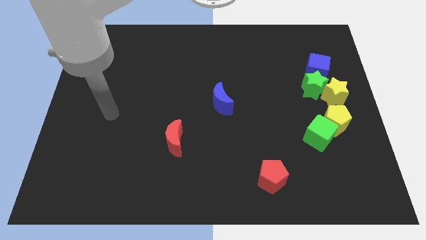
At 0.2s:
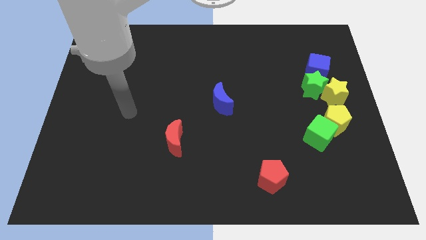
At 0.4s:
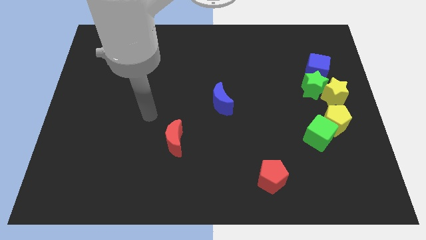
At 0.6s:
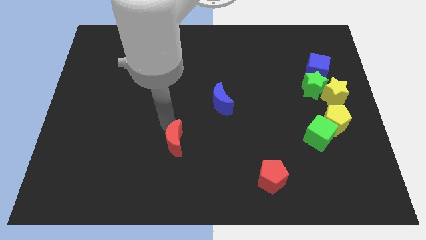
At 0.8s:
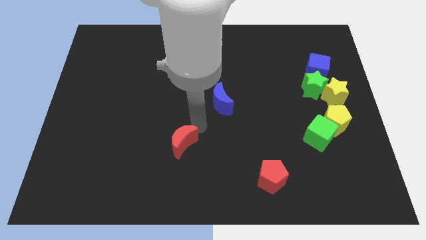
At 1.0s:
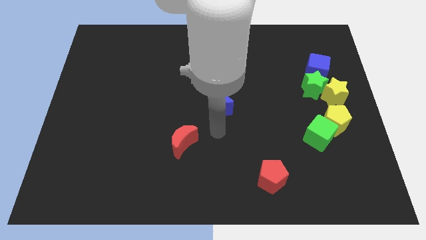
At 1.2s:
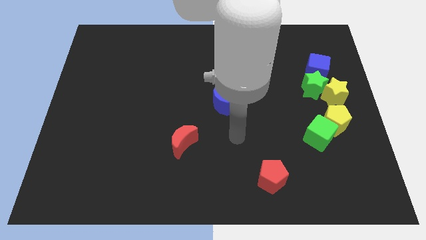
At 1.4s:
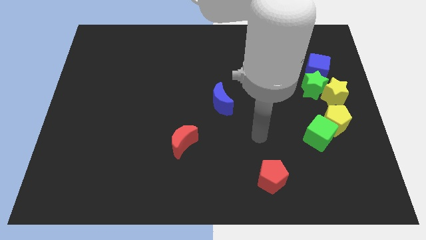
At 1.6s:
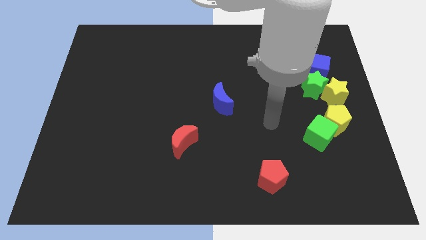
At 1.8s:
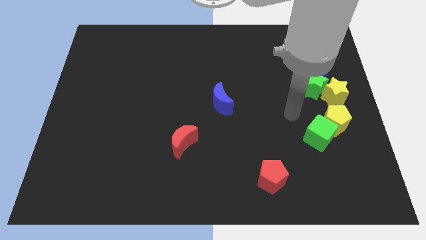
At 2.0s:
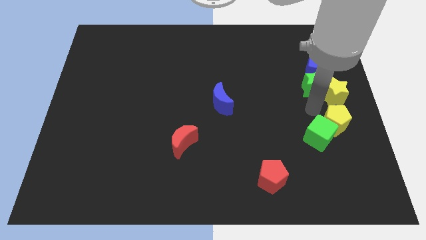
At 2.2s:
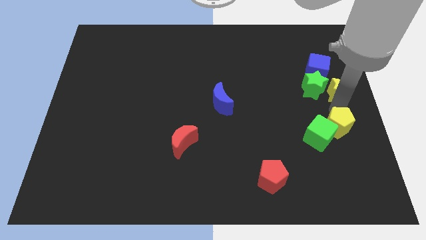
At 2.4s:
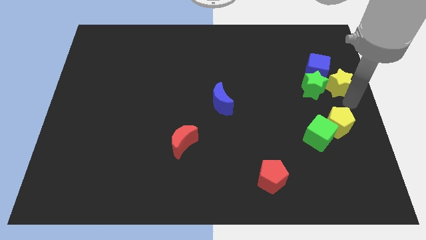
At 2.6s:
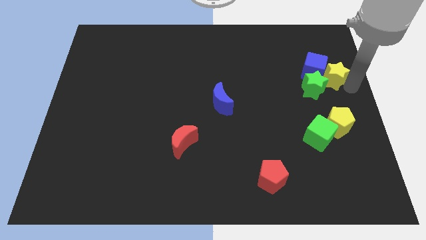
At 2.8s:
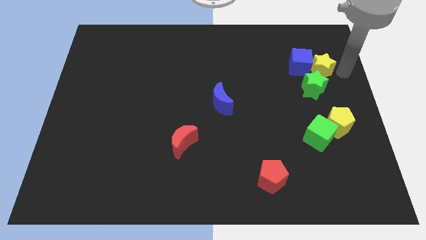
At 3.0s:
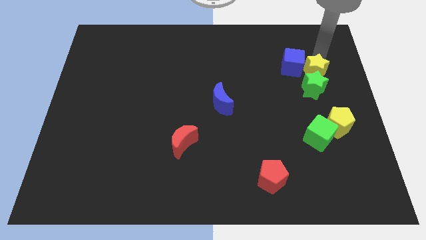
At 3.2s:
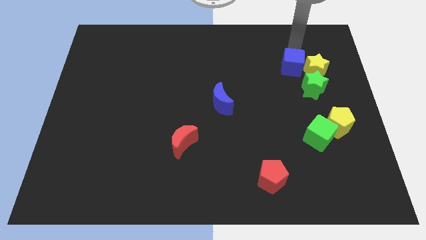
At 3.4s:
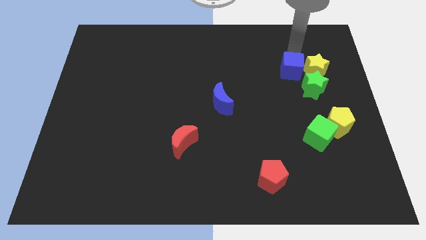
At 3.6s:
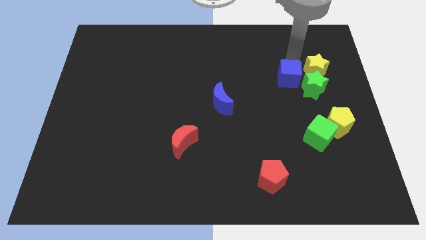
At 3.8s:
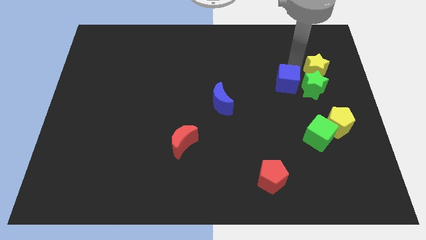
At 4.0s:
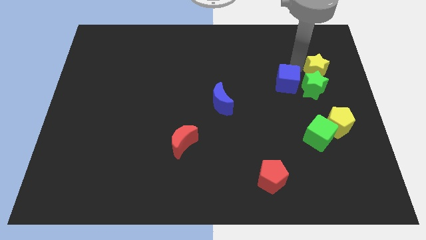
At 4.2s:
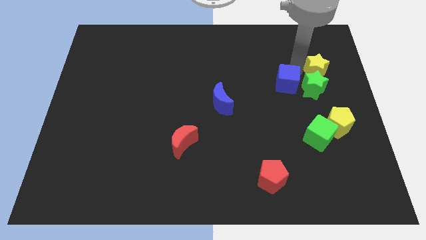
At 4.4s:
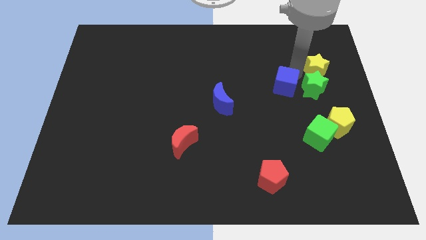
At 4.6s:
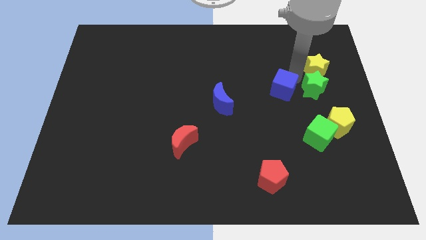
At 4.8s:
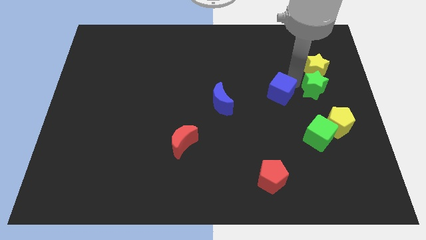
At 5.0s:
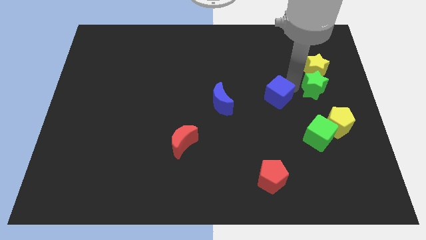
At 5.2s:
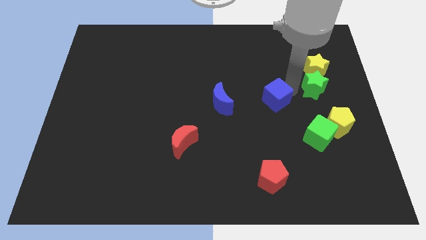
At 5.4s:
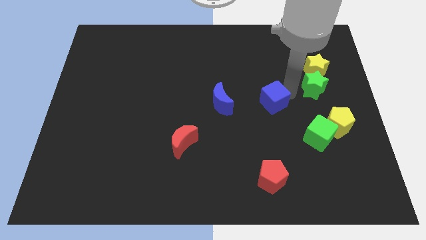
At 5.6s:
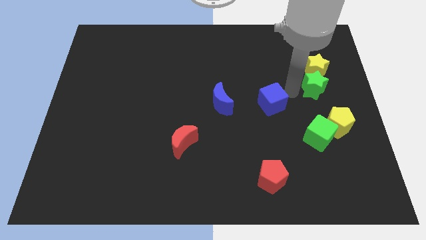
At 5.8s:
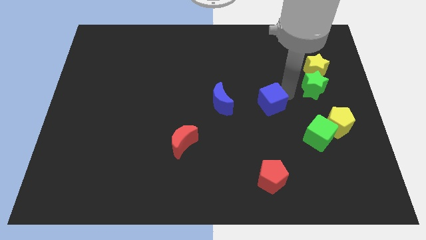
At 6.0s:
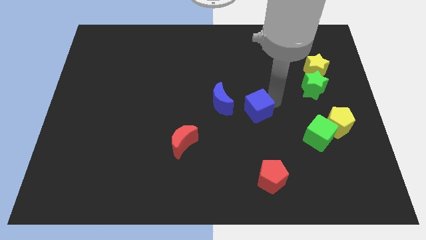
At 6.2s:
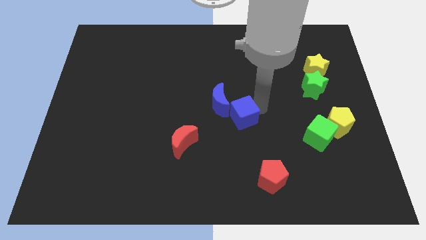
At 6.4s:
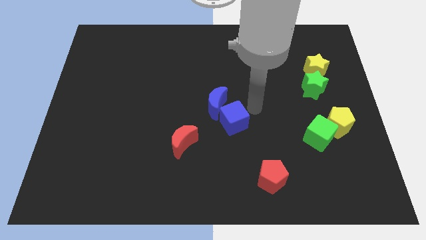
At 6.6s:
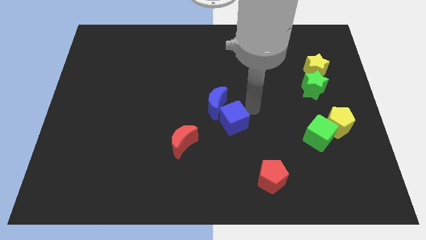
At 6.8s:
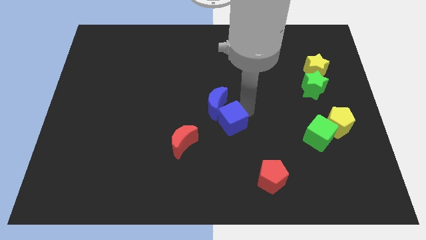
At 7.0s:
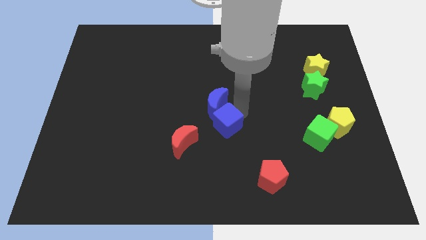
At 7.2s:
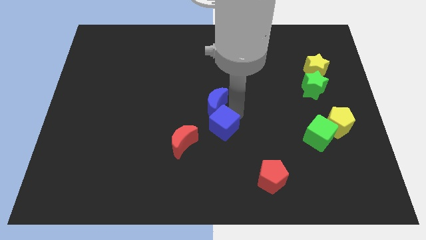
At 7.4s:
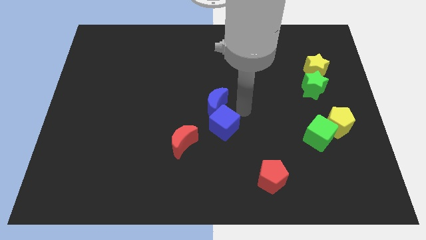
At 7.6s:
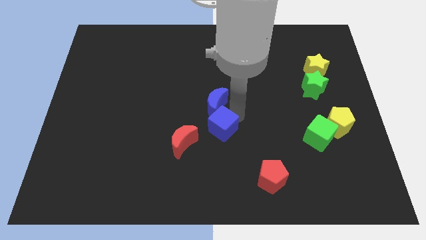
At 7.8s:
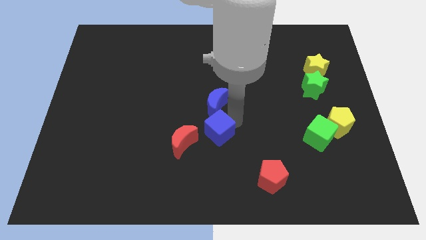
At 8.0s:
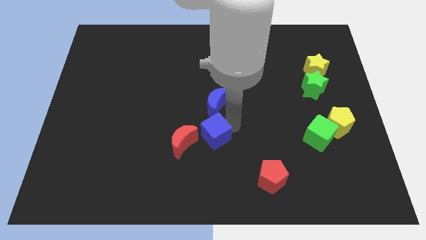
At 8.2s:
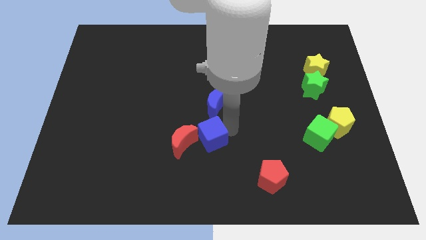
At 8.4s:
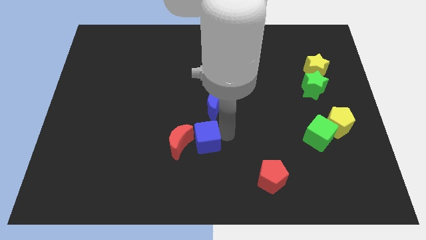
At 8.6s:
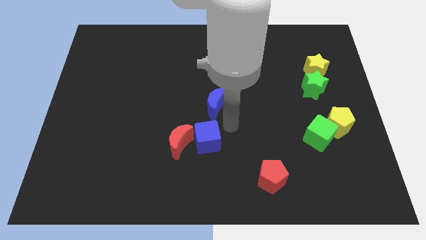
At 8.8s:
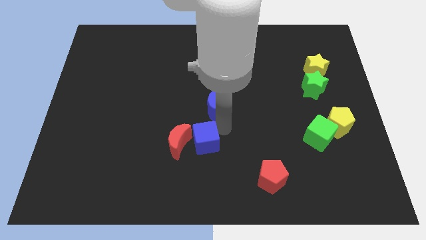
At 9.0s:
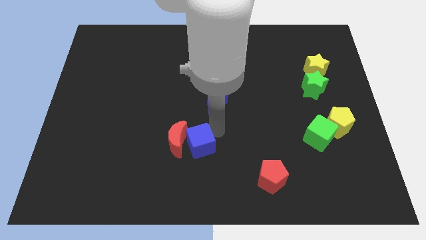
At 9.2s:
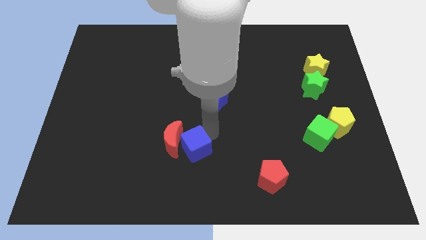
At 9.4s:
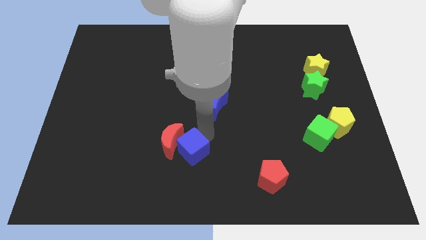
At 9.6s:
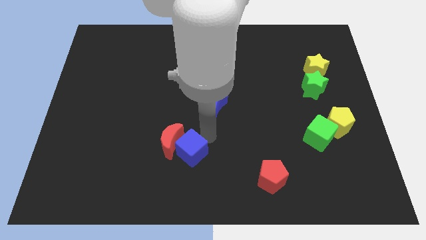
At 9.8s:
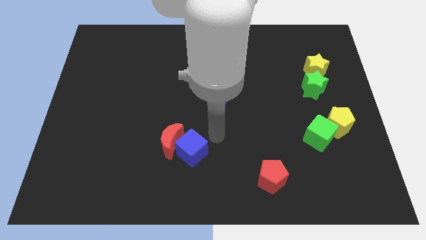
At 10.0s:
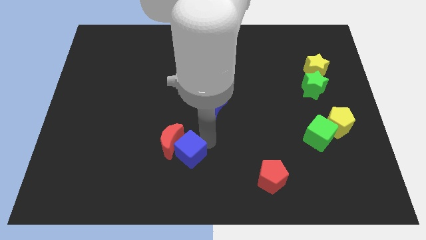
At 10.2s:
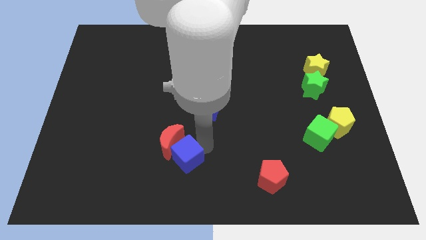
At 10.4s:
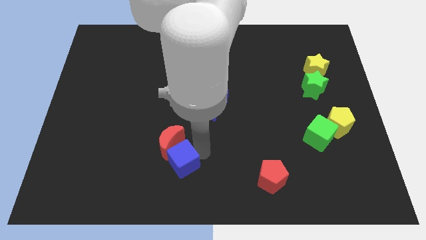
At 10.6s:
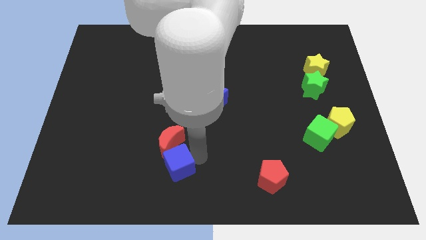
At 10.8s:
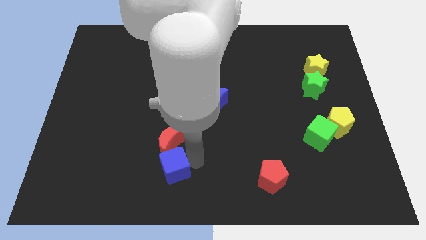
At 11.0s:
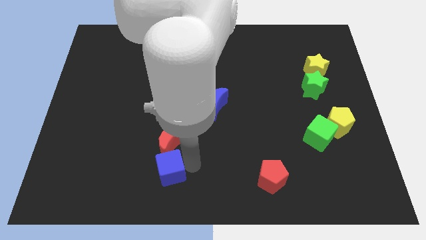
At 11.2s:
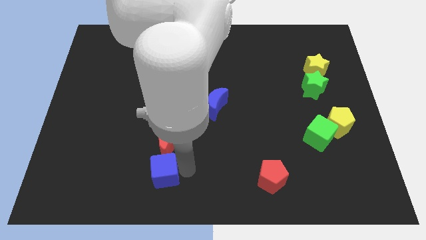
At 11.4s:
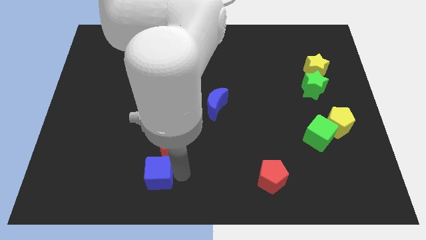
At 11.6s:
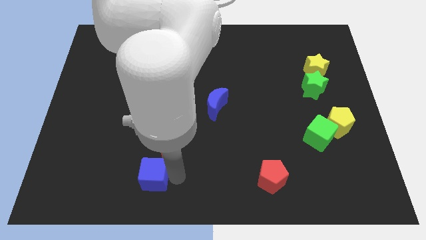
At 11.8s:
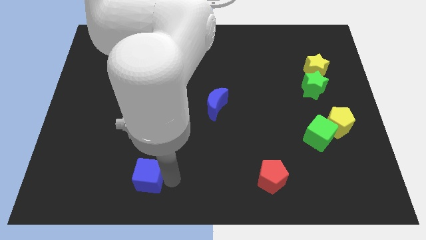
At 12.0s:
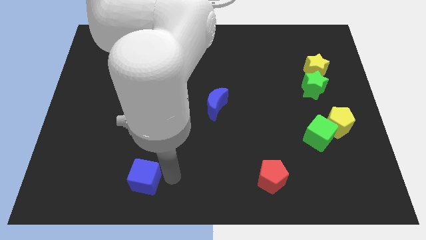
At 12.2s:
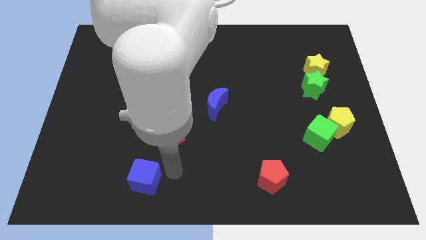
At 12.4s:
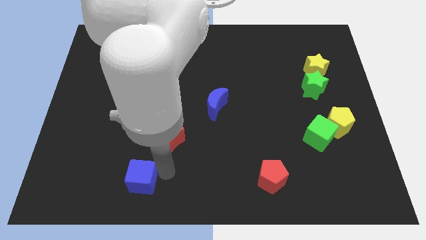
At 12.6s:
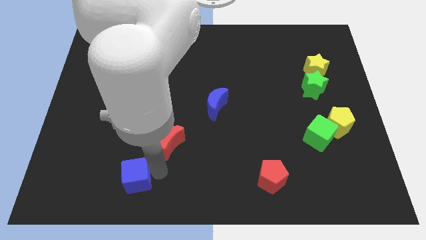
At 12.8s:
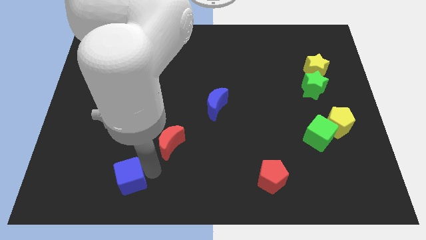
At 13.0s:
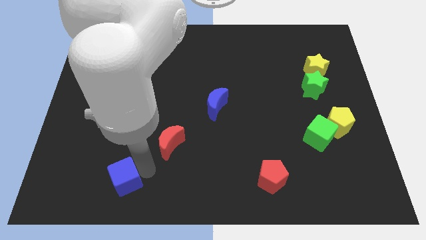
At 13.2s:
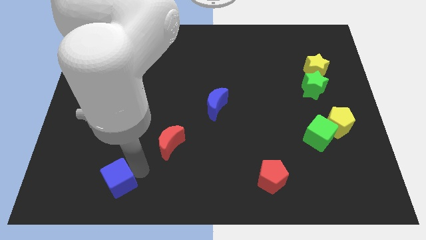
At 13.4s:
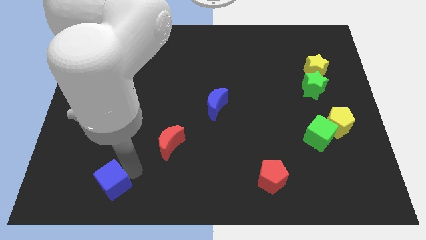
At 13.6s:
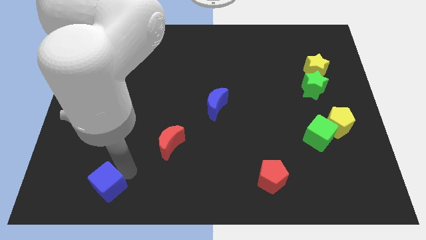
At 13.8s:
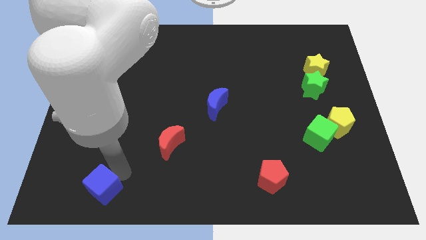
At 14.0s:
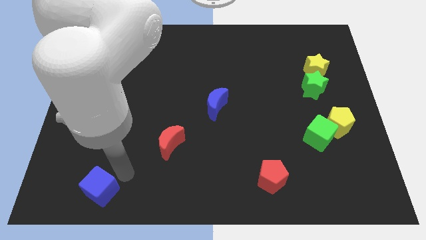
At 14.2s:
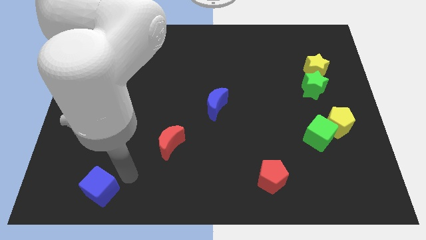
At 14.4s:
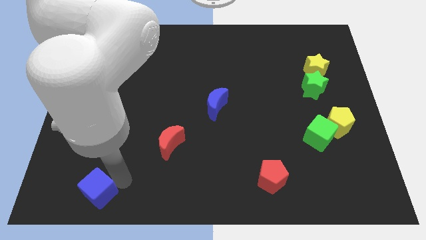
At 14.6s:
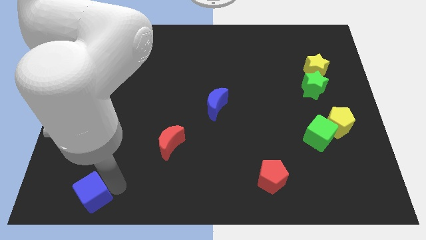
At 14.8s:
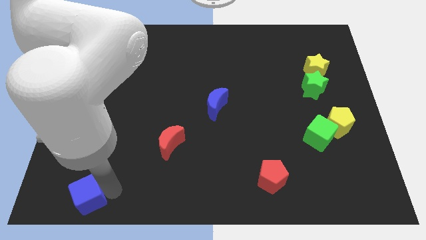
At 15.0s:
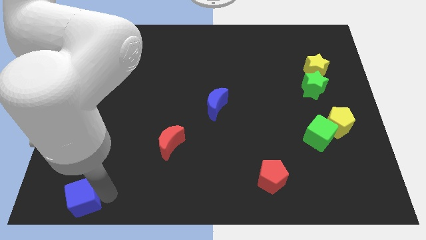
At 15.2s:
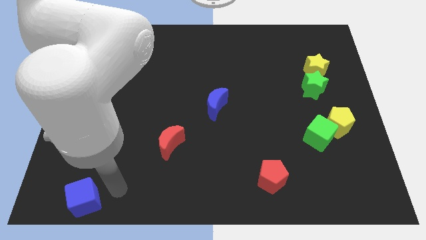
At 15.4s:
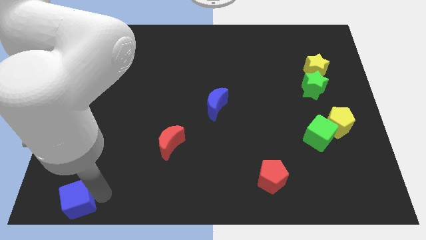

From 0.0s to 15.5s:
slide the blue cube to the lower left corner
